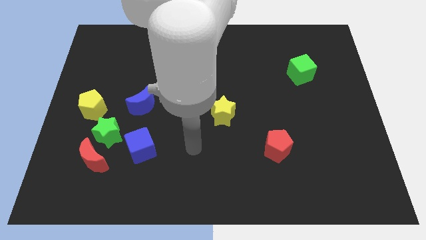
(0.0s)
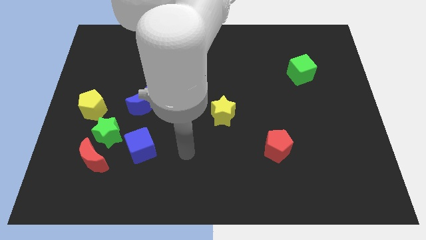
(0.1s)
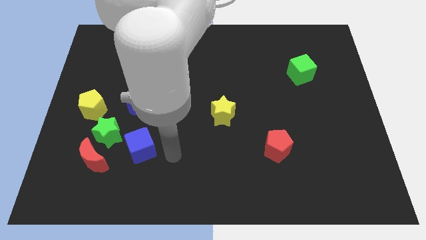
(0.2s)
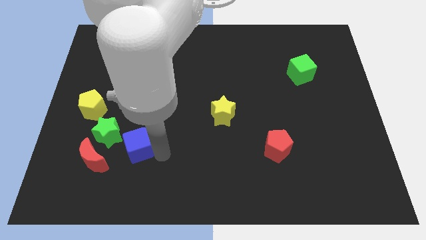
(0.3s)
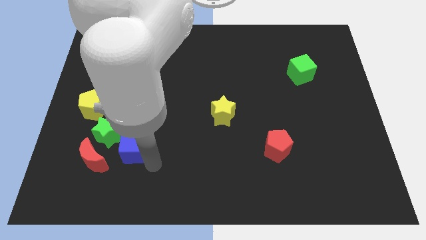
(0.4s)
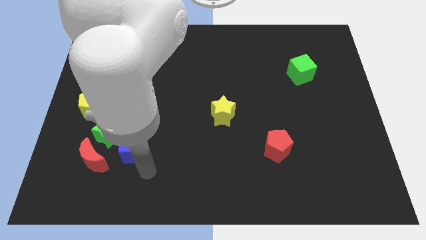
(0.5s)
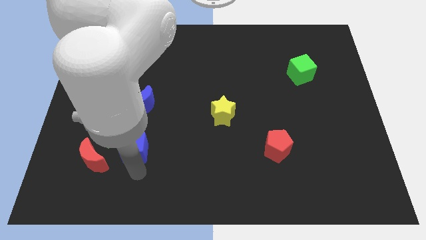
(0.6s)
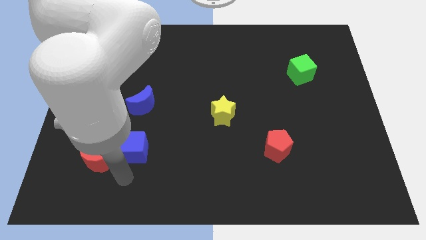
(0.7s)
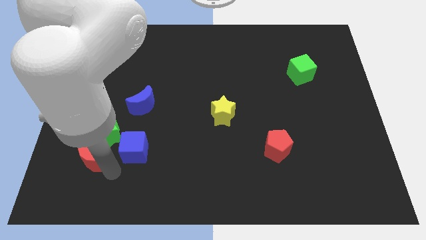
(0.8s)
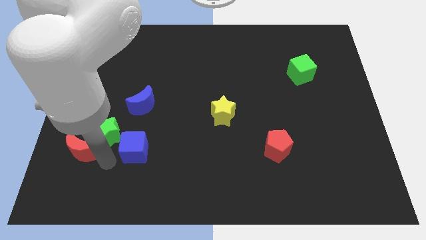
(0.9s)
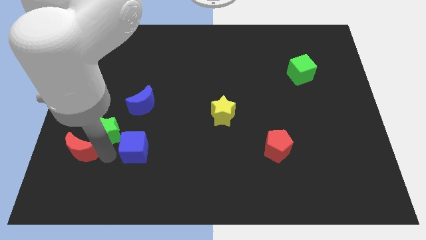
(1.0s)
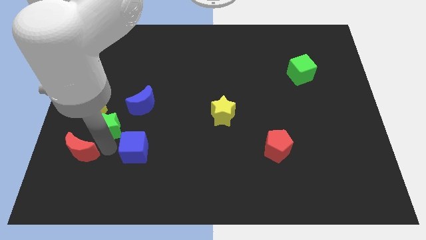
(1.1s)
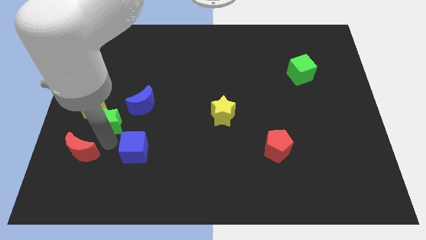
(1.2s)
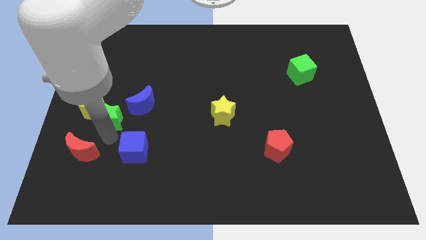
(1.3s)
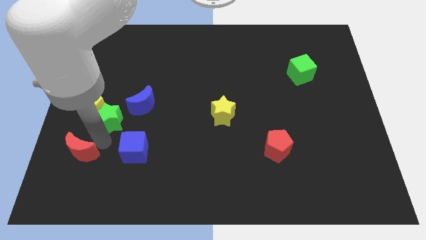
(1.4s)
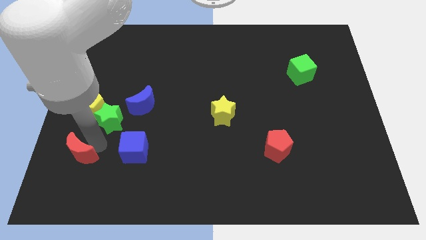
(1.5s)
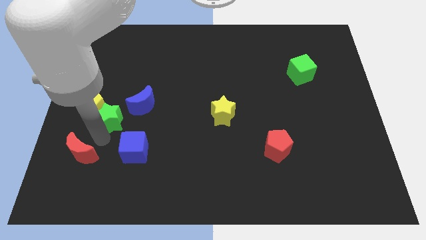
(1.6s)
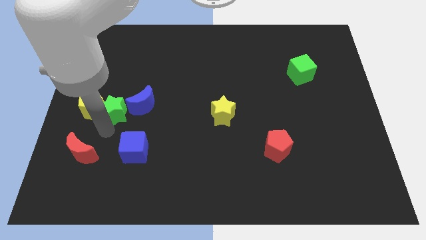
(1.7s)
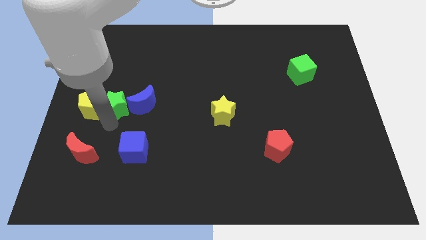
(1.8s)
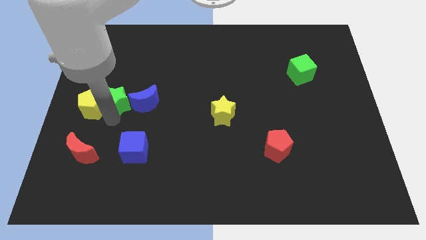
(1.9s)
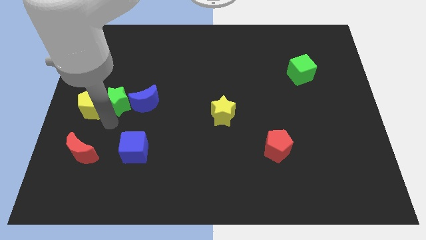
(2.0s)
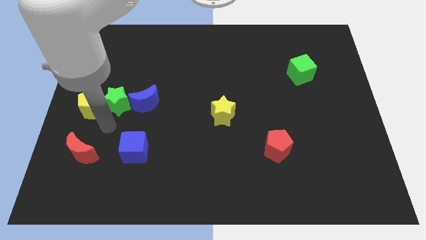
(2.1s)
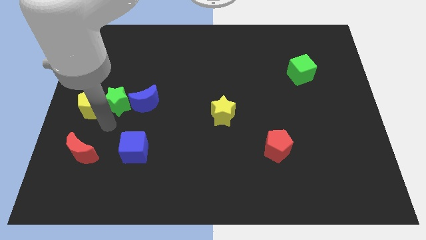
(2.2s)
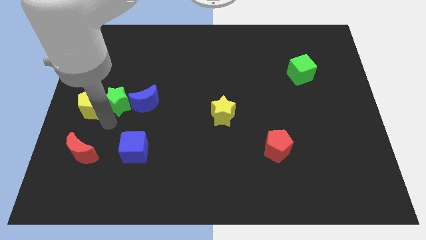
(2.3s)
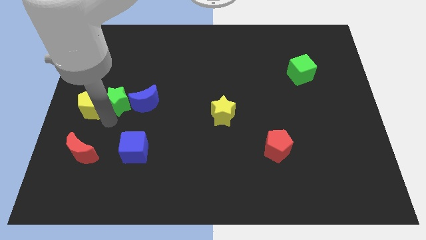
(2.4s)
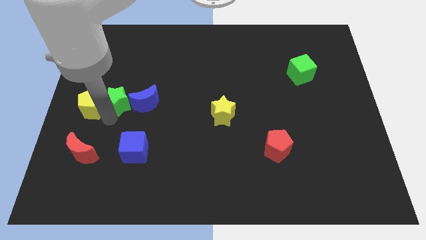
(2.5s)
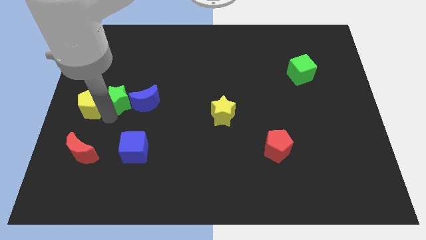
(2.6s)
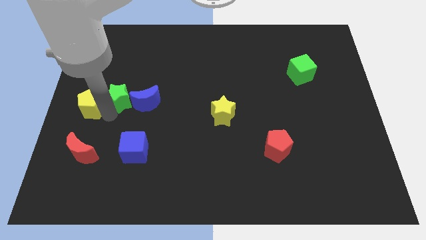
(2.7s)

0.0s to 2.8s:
separate the green star from the red moon, blue cube, and yellow pentagon

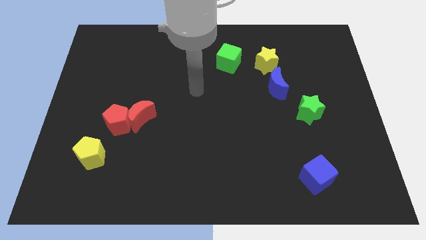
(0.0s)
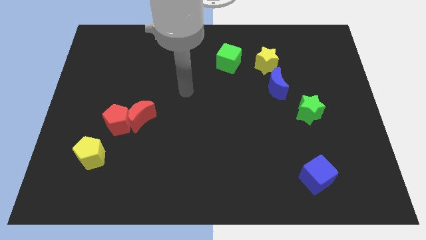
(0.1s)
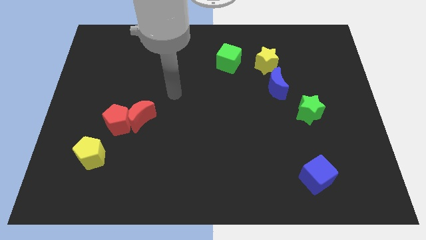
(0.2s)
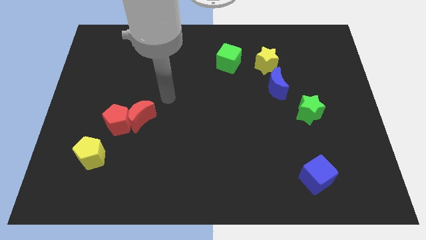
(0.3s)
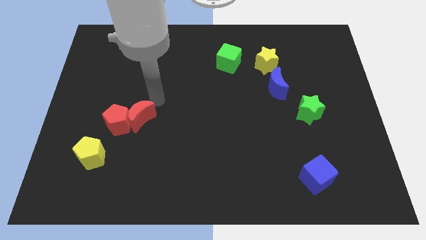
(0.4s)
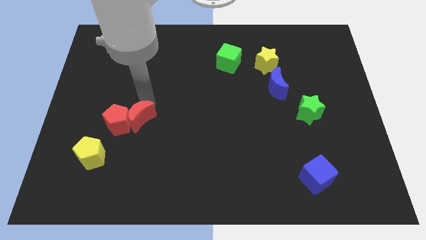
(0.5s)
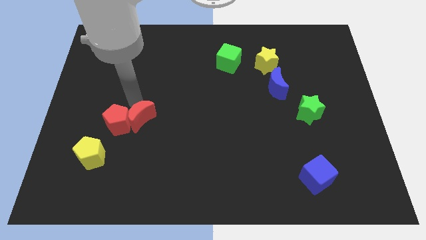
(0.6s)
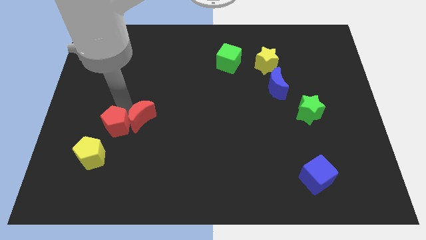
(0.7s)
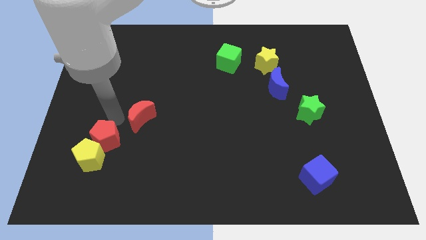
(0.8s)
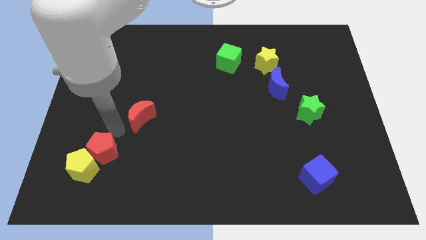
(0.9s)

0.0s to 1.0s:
pull the red moon apart from the red pentagon

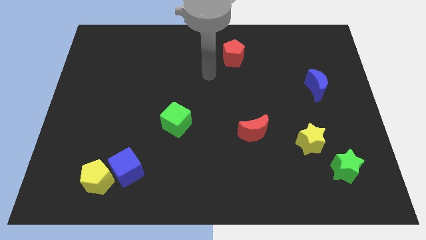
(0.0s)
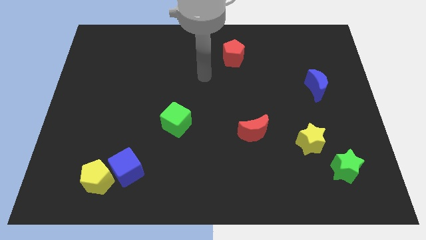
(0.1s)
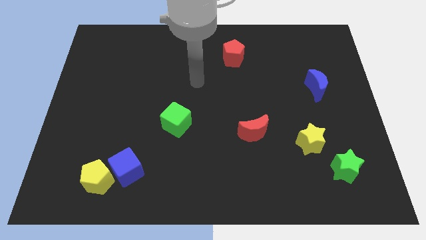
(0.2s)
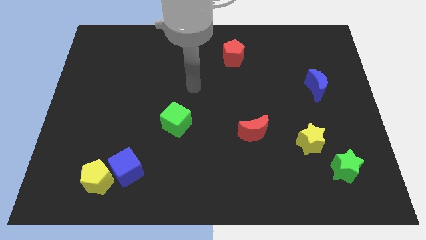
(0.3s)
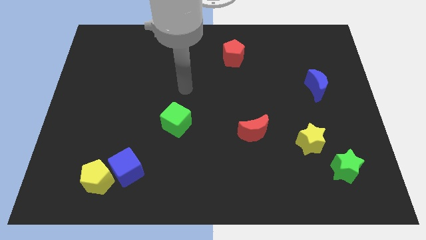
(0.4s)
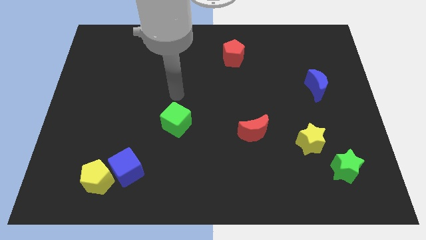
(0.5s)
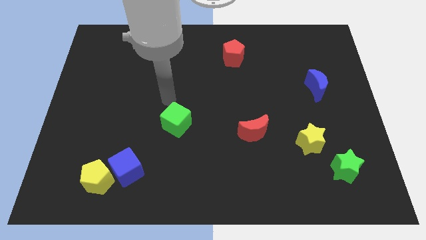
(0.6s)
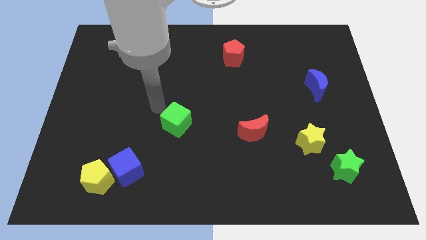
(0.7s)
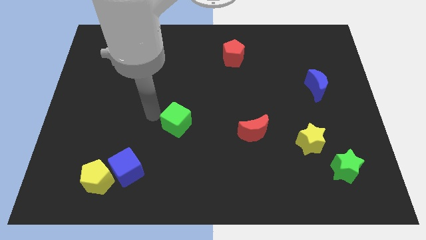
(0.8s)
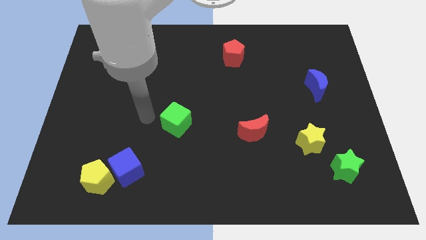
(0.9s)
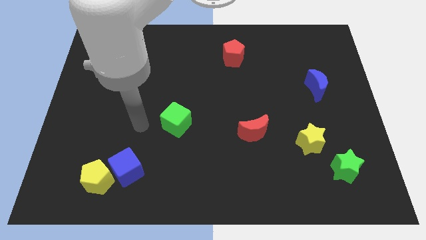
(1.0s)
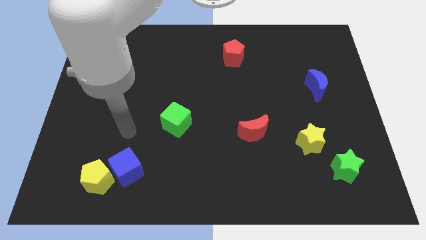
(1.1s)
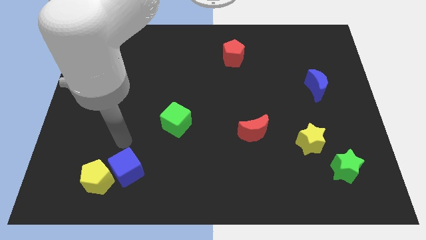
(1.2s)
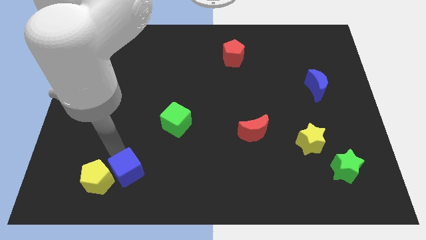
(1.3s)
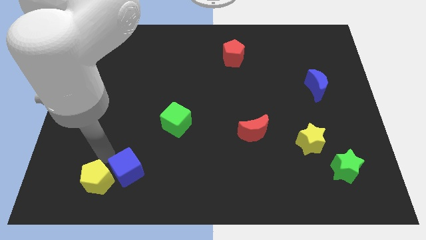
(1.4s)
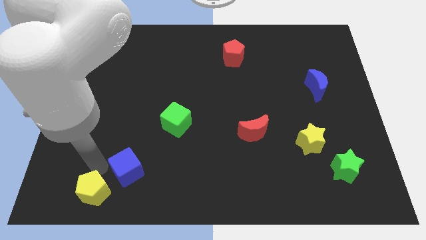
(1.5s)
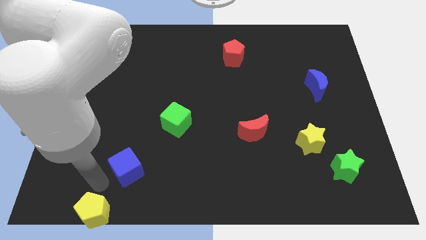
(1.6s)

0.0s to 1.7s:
move the blue cube away from the yellow pentagon

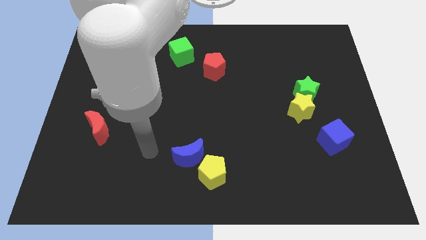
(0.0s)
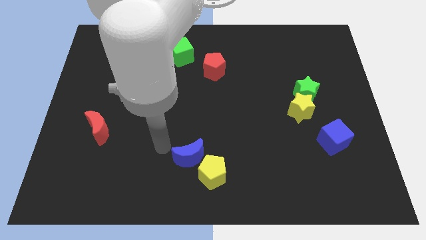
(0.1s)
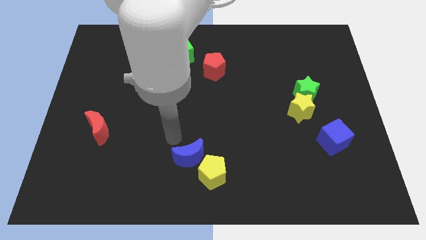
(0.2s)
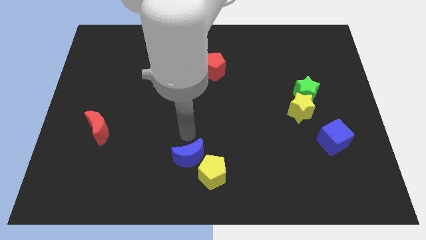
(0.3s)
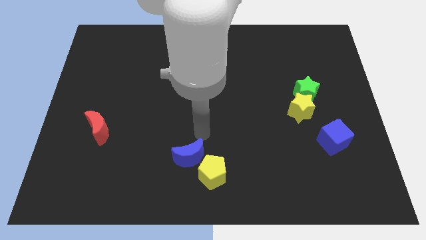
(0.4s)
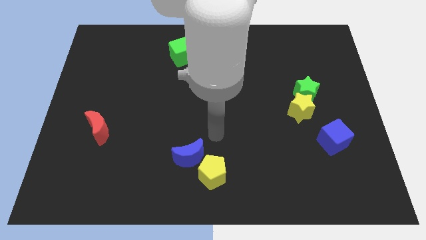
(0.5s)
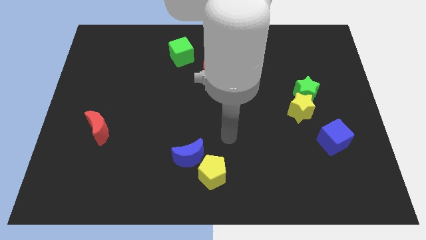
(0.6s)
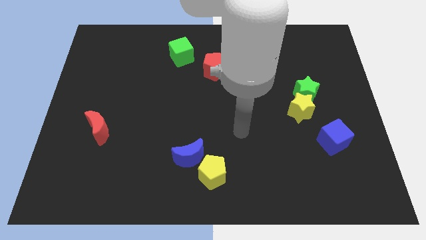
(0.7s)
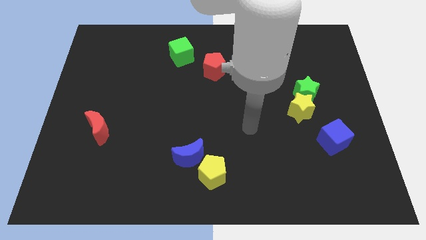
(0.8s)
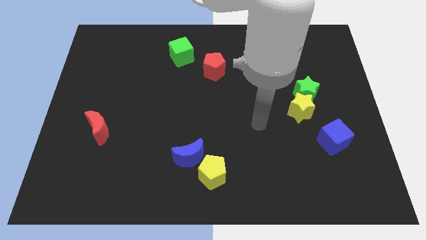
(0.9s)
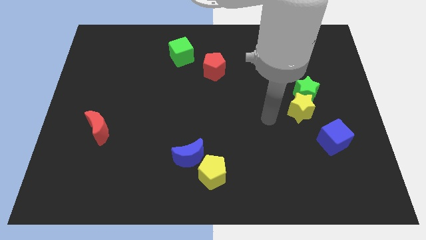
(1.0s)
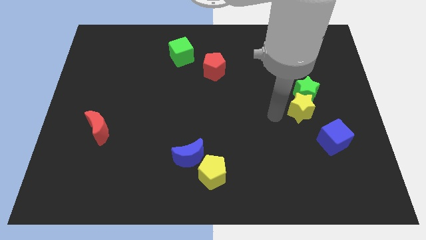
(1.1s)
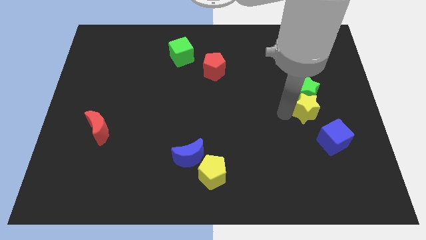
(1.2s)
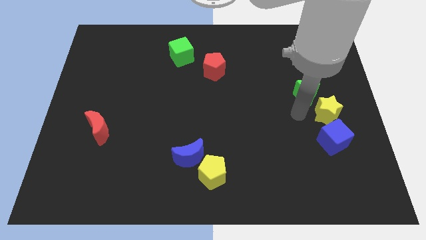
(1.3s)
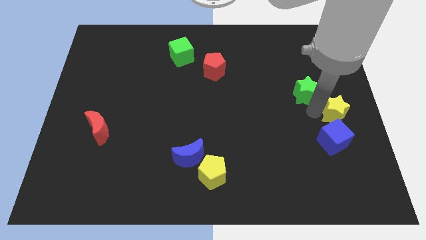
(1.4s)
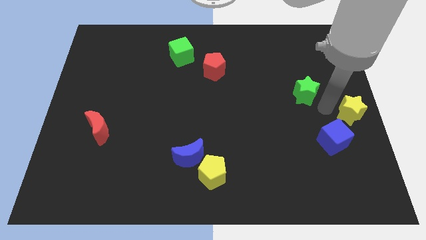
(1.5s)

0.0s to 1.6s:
pull the green star apart from the yellow star

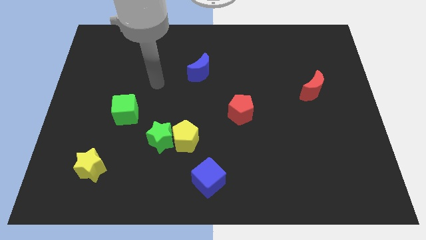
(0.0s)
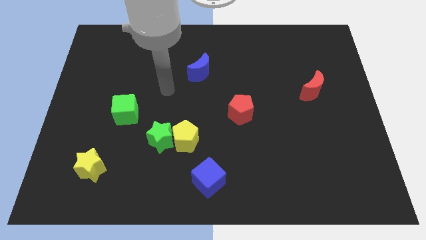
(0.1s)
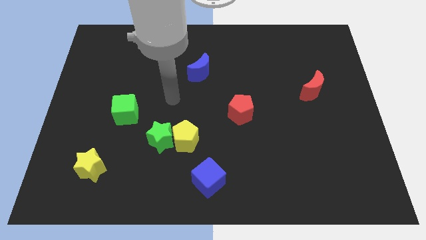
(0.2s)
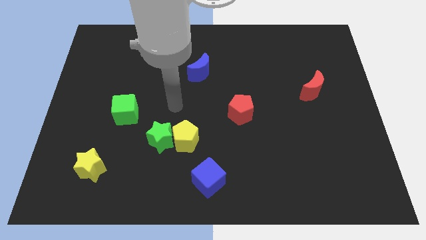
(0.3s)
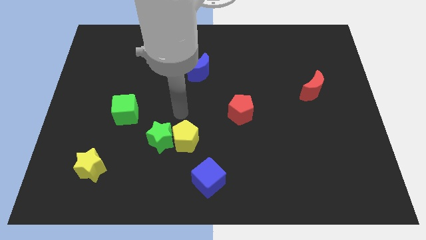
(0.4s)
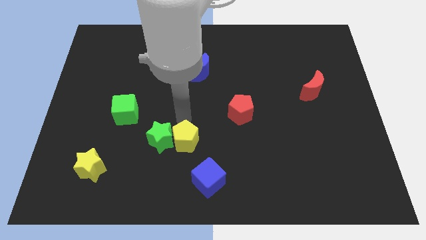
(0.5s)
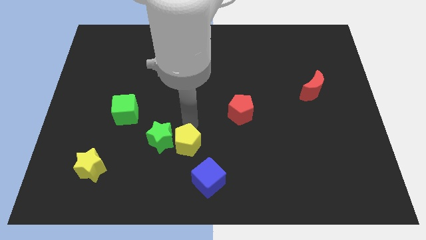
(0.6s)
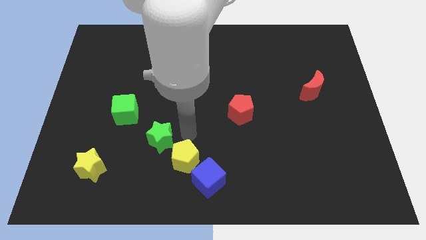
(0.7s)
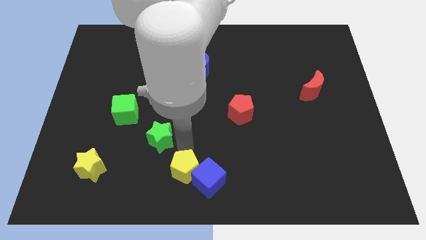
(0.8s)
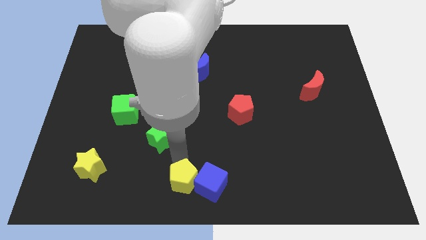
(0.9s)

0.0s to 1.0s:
pull the green star apart from the yellow pentagon

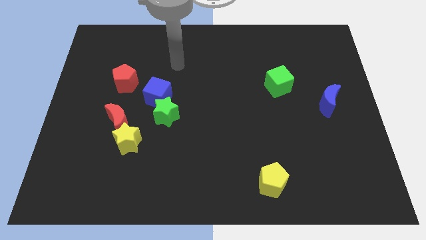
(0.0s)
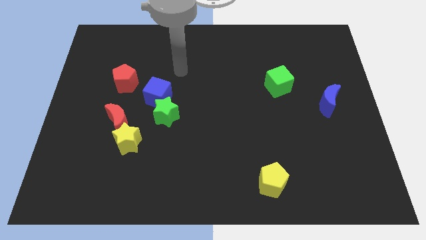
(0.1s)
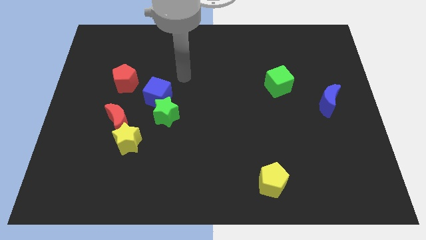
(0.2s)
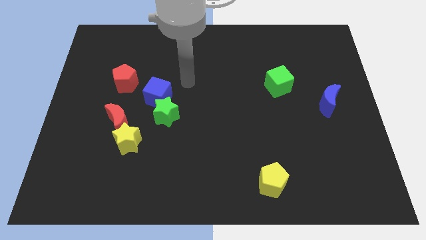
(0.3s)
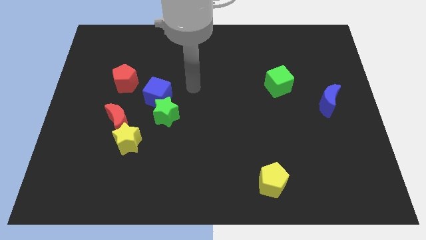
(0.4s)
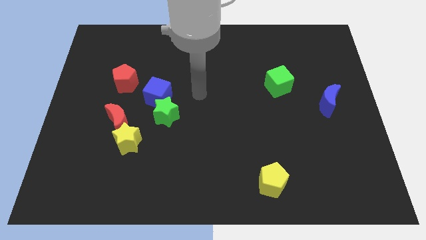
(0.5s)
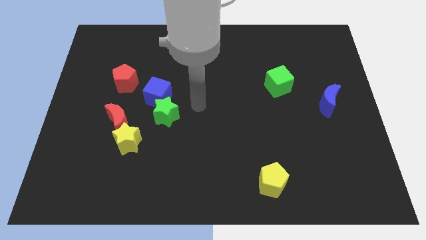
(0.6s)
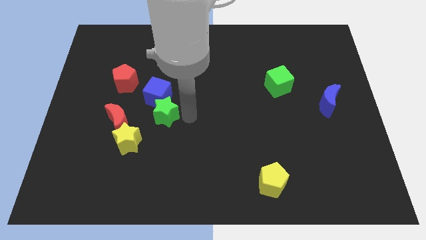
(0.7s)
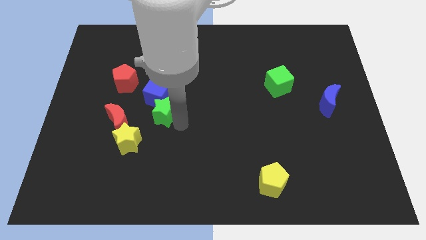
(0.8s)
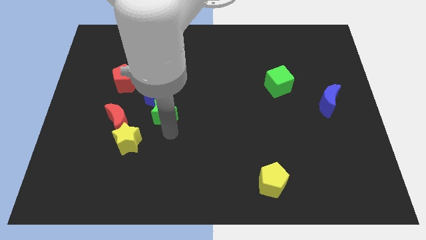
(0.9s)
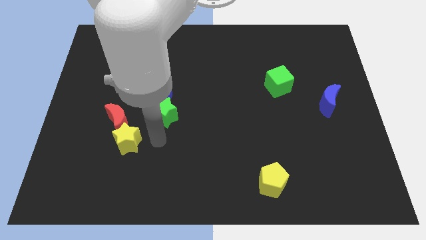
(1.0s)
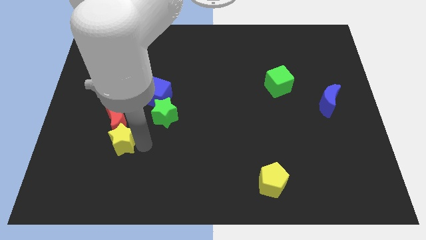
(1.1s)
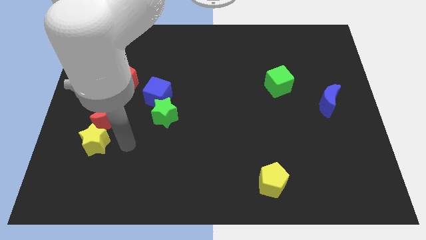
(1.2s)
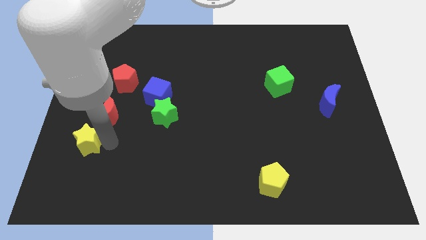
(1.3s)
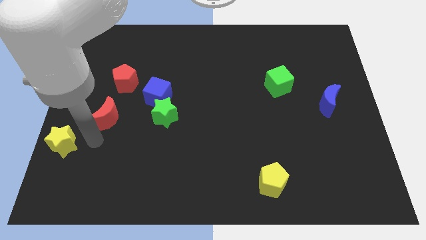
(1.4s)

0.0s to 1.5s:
separate the red moon from the yellow star
